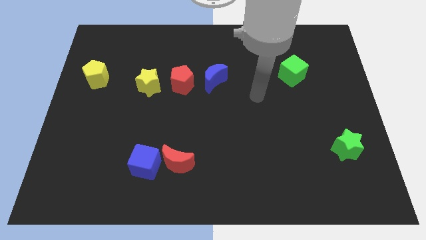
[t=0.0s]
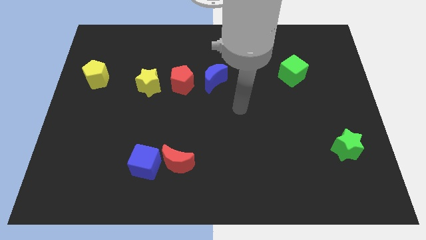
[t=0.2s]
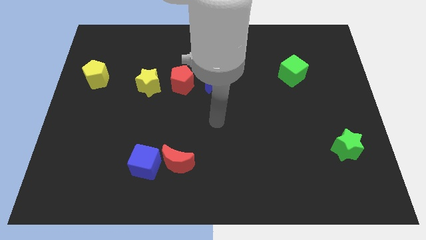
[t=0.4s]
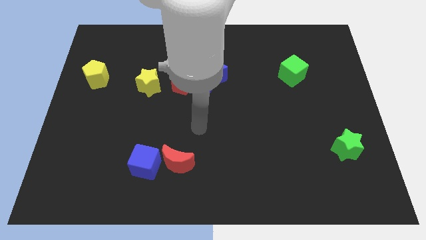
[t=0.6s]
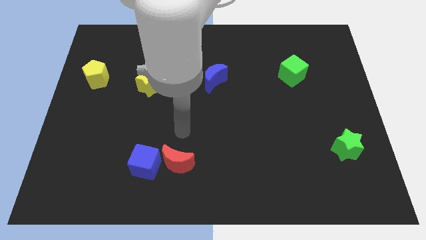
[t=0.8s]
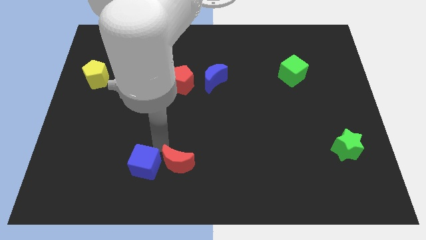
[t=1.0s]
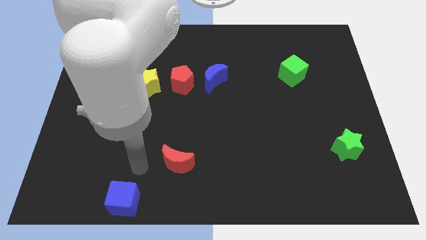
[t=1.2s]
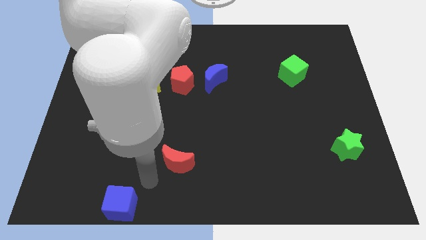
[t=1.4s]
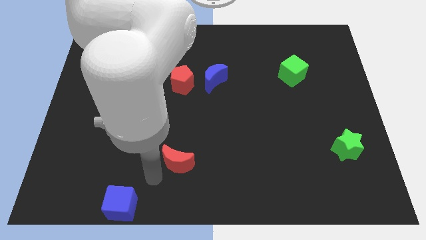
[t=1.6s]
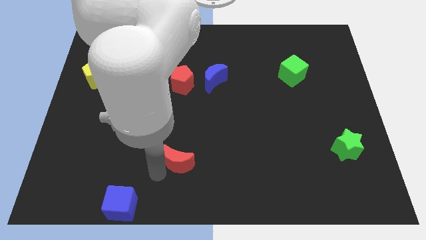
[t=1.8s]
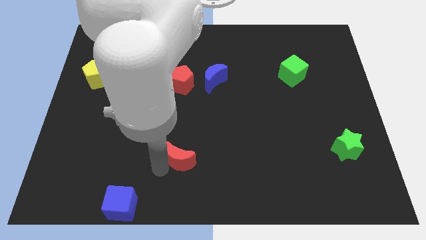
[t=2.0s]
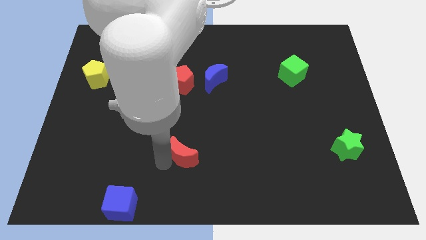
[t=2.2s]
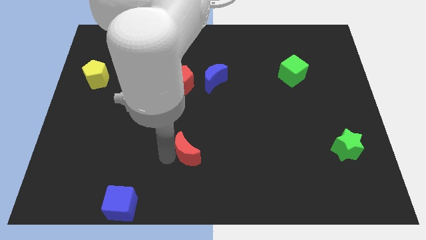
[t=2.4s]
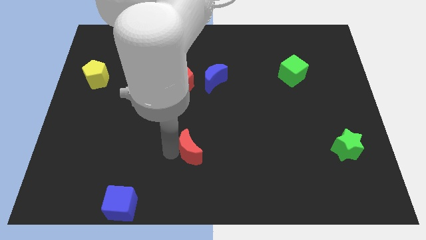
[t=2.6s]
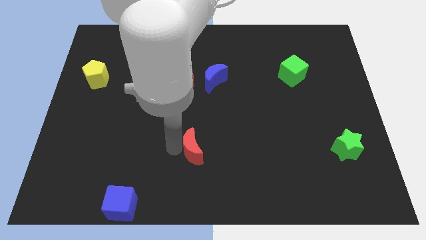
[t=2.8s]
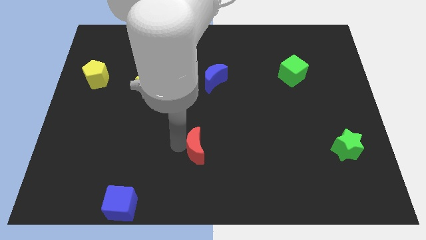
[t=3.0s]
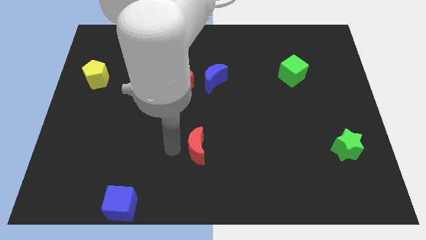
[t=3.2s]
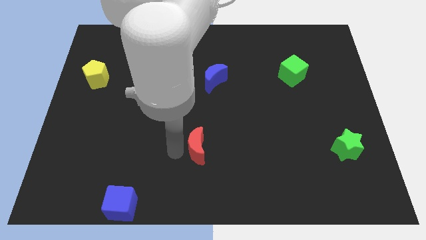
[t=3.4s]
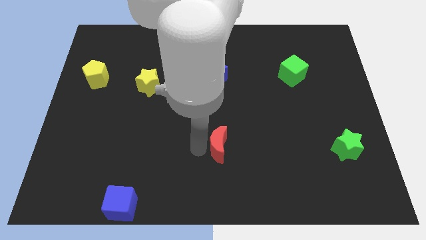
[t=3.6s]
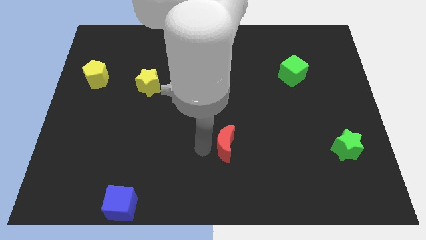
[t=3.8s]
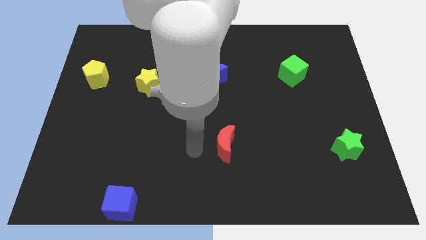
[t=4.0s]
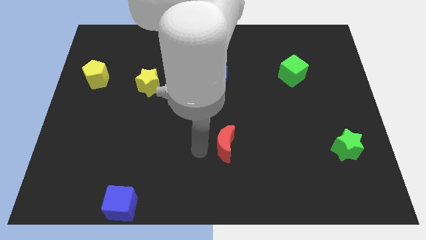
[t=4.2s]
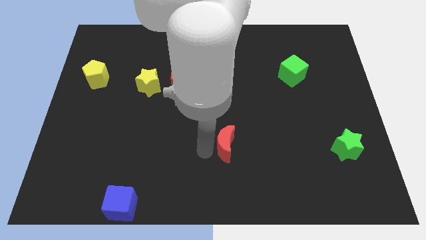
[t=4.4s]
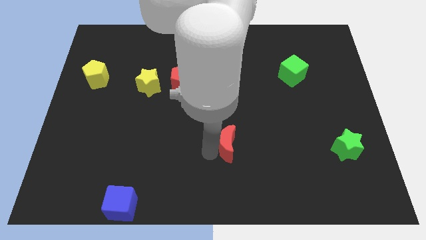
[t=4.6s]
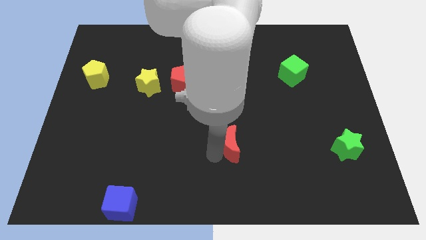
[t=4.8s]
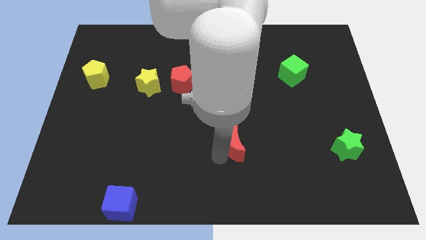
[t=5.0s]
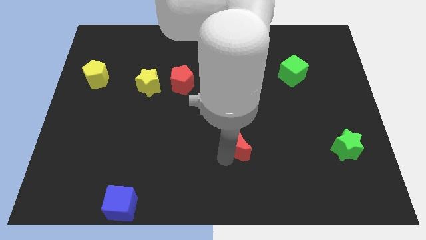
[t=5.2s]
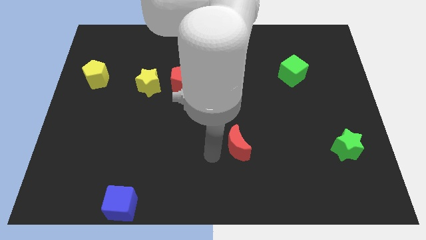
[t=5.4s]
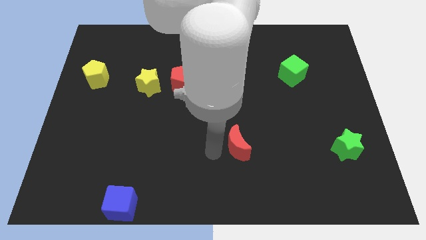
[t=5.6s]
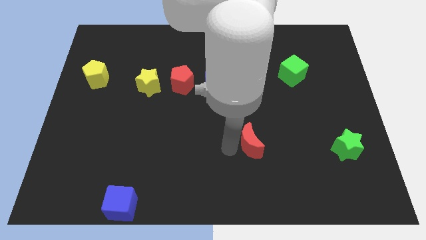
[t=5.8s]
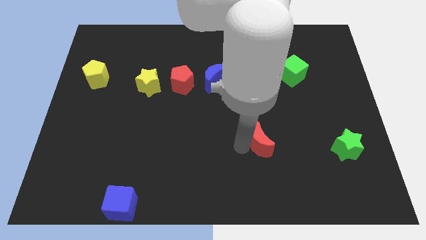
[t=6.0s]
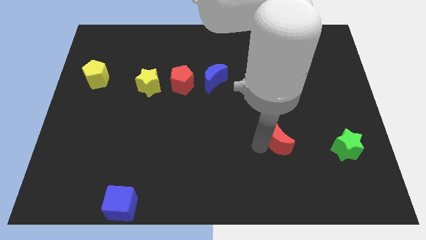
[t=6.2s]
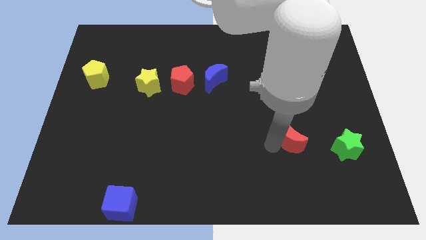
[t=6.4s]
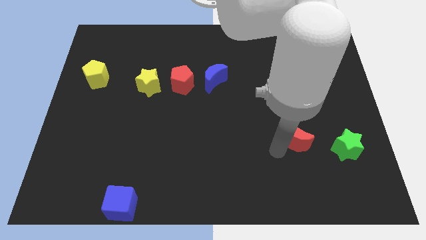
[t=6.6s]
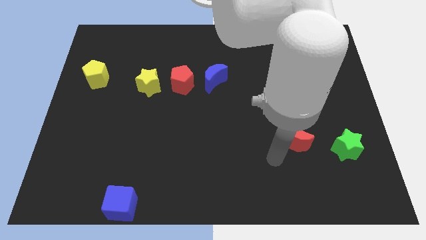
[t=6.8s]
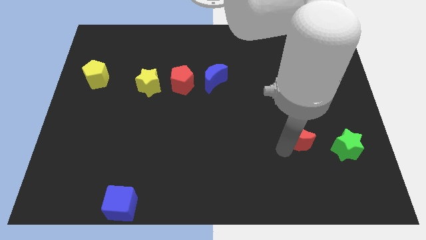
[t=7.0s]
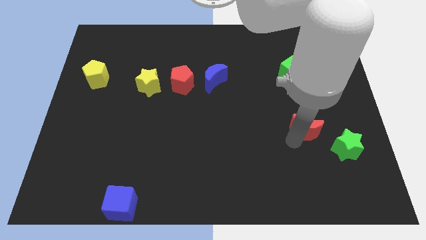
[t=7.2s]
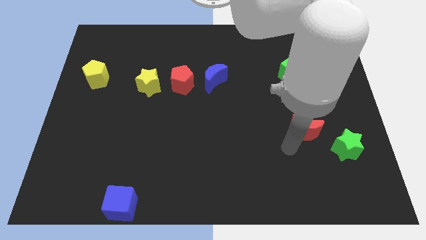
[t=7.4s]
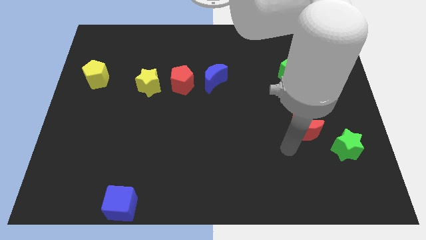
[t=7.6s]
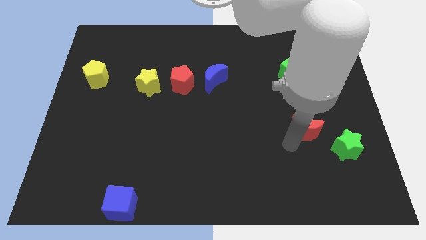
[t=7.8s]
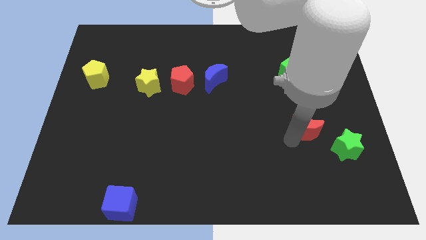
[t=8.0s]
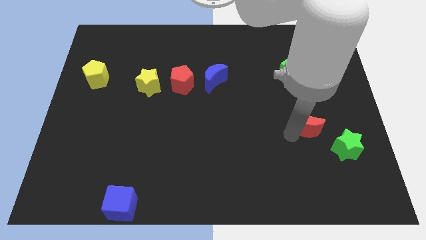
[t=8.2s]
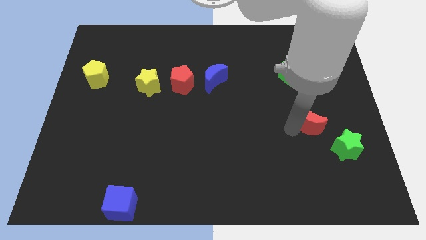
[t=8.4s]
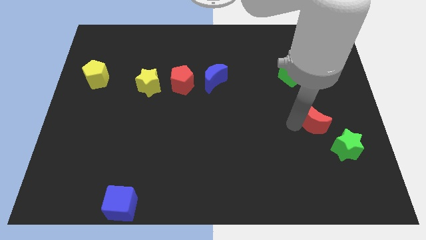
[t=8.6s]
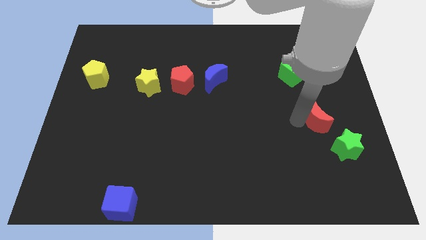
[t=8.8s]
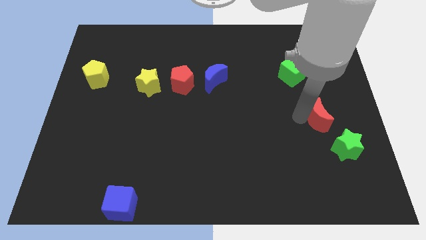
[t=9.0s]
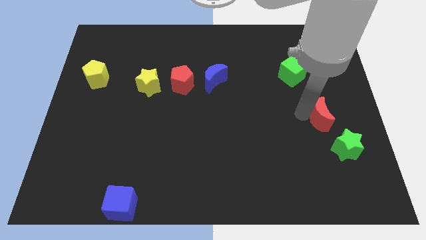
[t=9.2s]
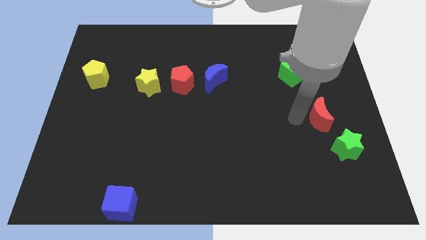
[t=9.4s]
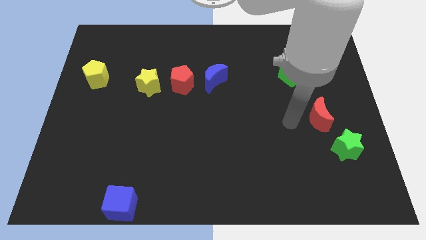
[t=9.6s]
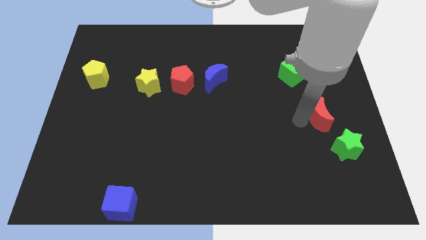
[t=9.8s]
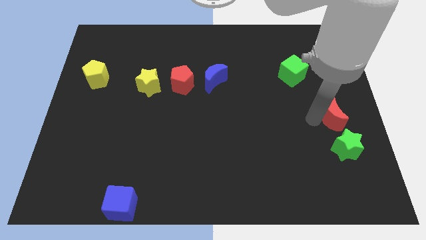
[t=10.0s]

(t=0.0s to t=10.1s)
slide the red moon to the right side of the board

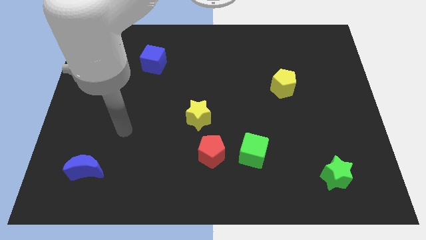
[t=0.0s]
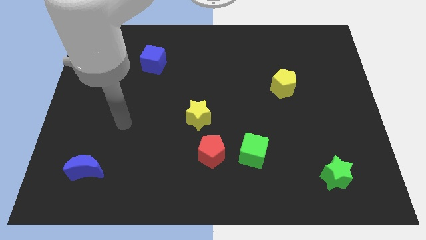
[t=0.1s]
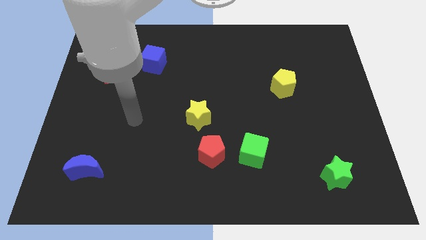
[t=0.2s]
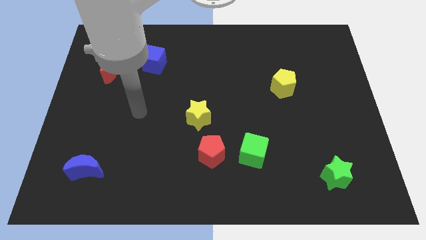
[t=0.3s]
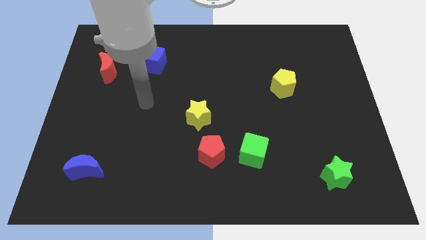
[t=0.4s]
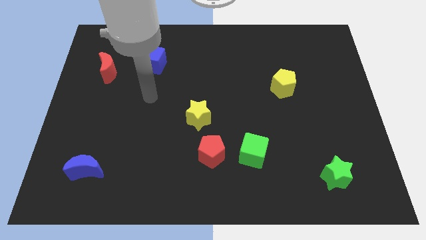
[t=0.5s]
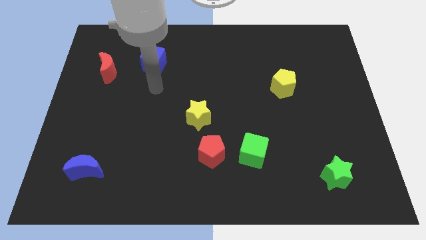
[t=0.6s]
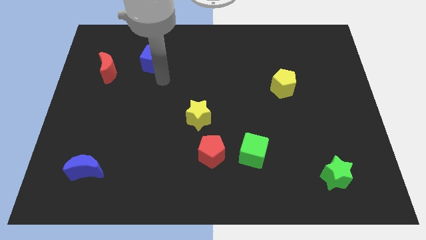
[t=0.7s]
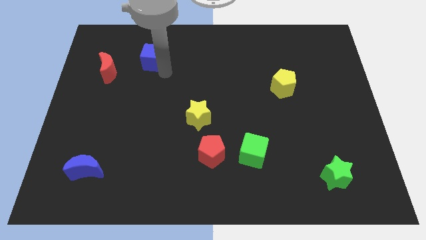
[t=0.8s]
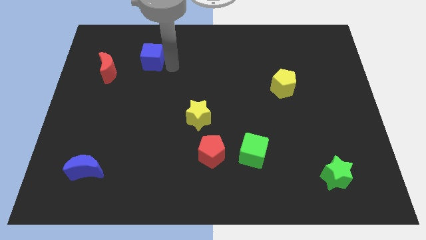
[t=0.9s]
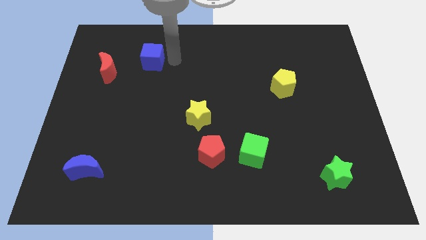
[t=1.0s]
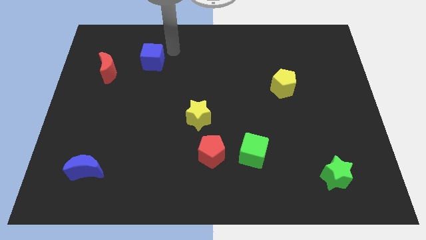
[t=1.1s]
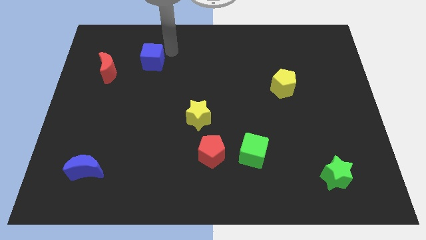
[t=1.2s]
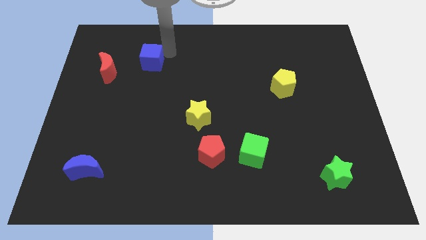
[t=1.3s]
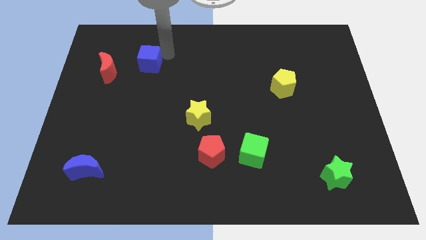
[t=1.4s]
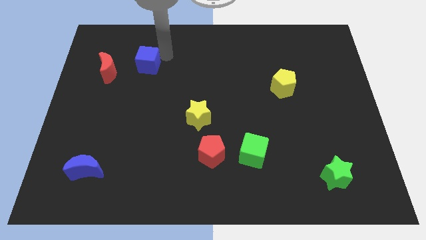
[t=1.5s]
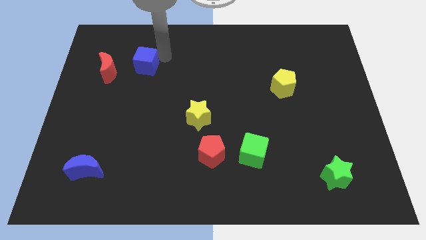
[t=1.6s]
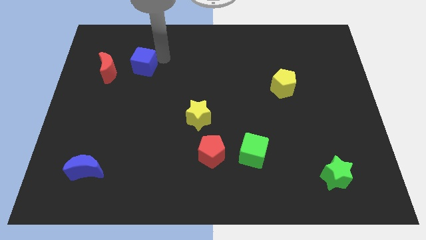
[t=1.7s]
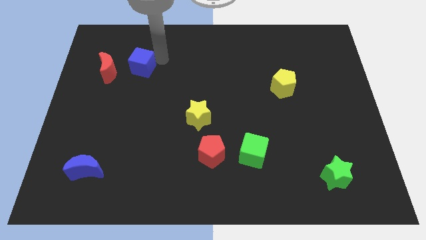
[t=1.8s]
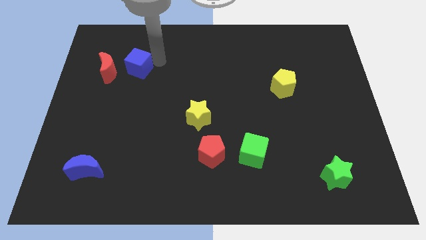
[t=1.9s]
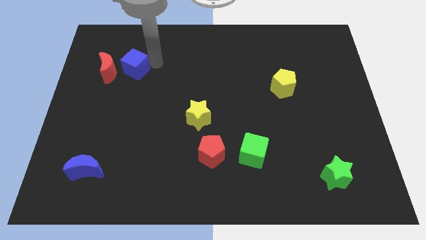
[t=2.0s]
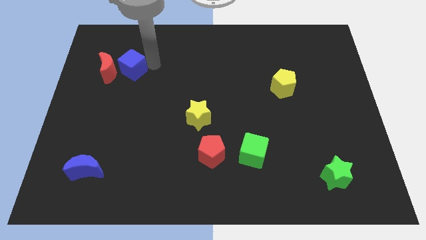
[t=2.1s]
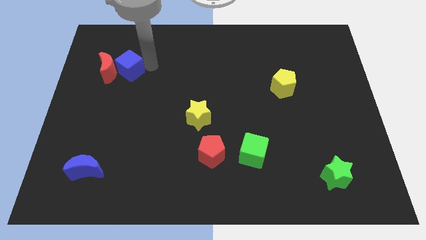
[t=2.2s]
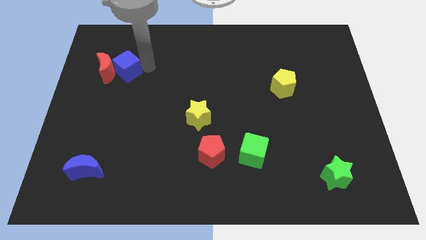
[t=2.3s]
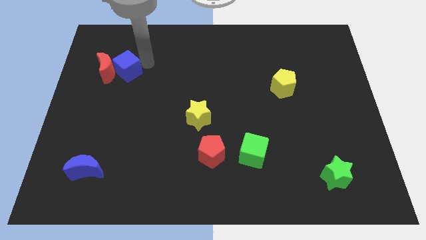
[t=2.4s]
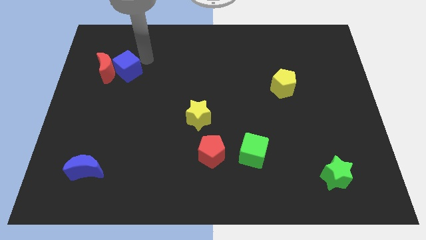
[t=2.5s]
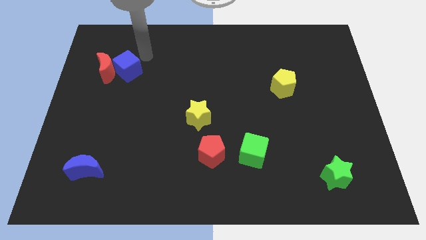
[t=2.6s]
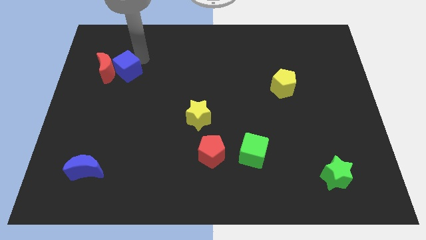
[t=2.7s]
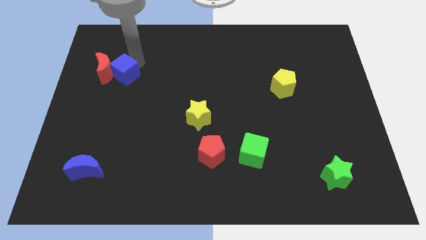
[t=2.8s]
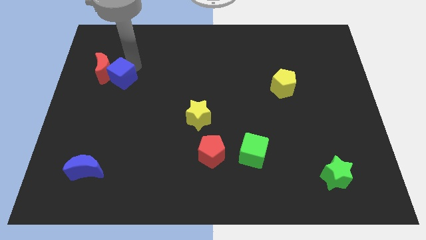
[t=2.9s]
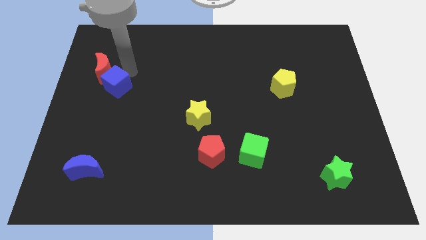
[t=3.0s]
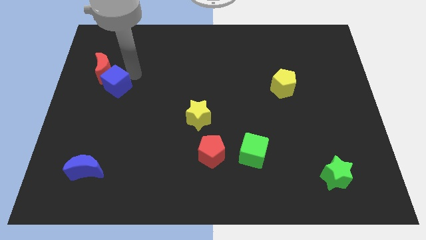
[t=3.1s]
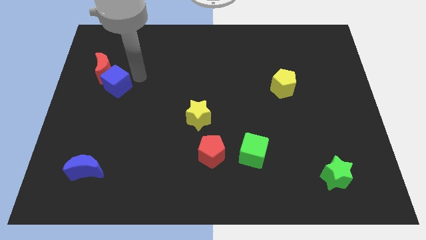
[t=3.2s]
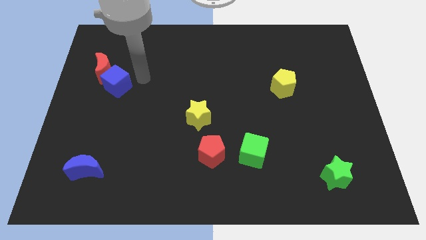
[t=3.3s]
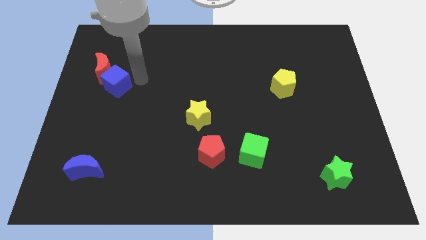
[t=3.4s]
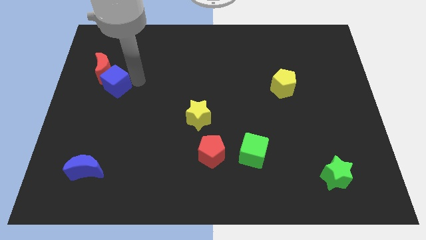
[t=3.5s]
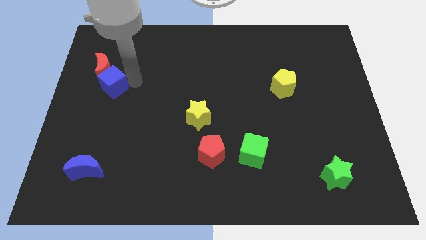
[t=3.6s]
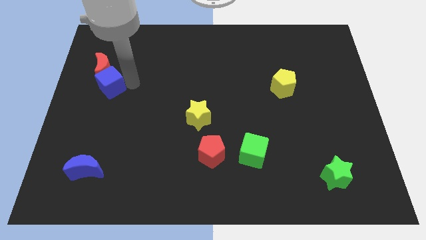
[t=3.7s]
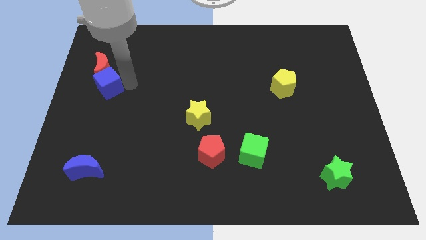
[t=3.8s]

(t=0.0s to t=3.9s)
slide the blue cube to the left side of the board
